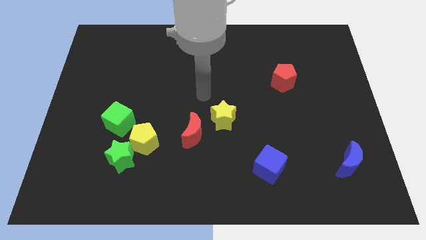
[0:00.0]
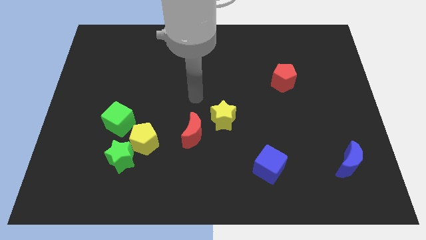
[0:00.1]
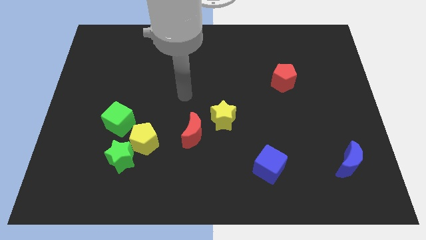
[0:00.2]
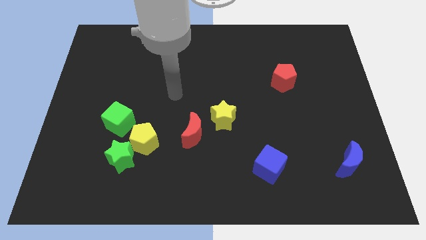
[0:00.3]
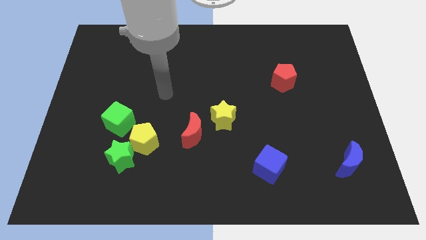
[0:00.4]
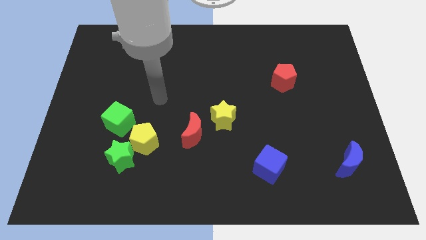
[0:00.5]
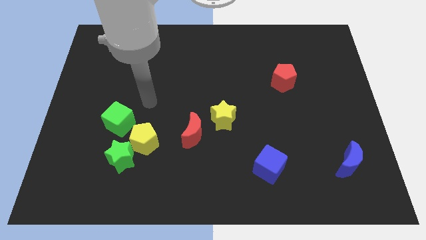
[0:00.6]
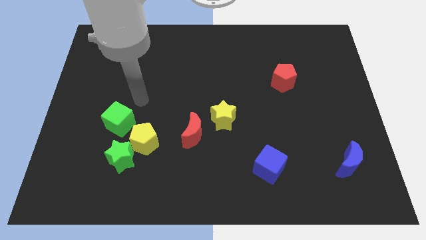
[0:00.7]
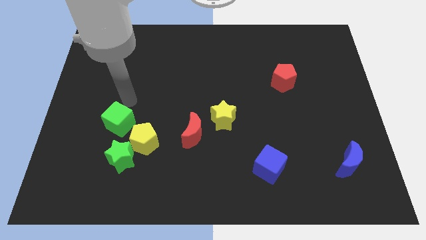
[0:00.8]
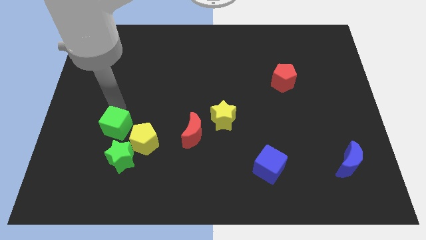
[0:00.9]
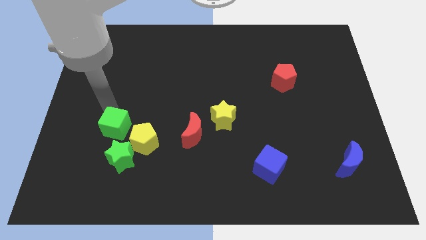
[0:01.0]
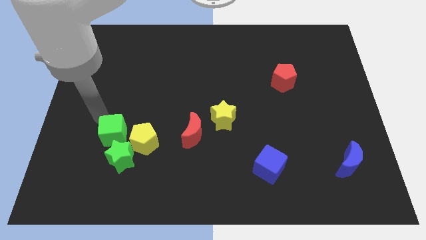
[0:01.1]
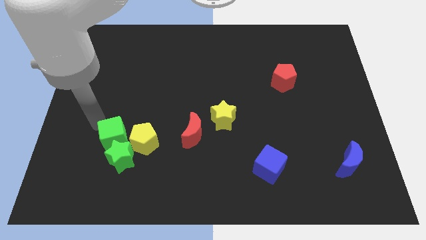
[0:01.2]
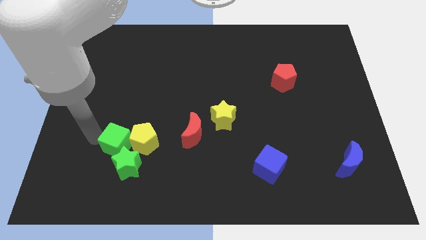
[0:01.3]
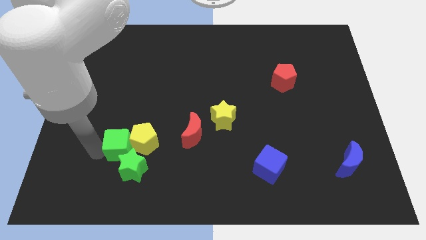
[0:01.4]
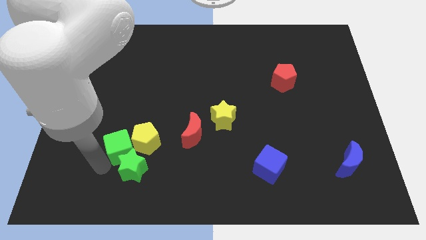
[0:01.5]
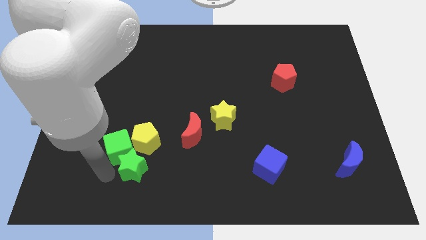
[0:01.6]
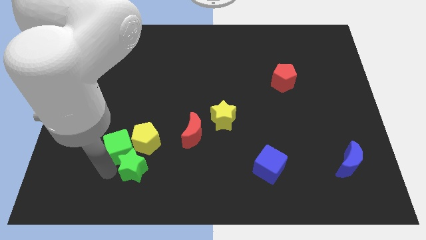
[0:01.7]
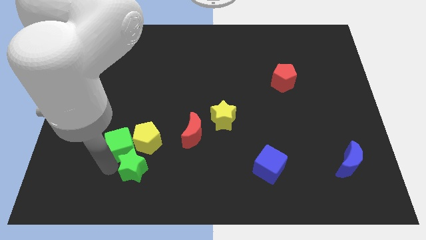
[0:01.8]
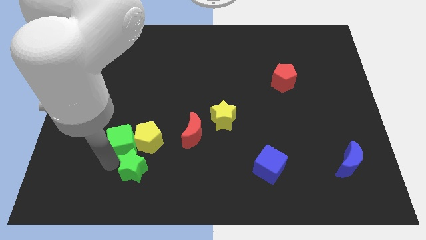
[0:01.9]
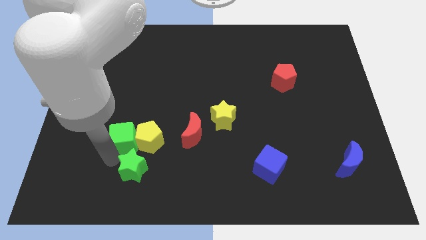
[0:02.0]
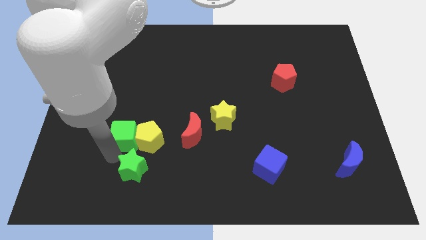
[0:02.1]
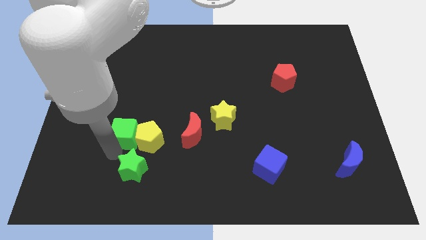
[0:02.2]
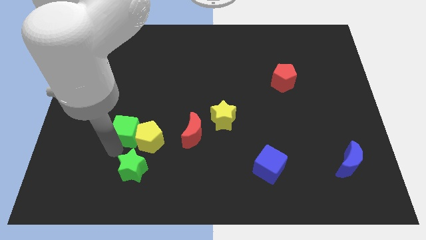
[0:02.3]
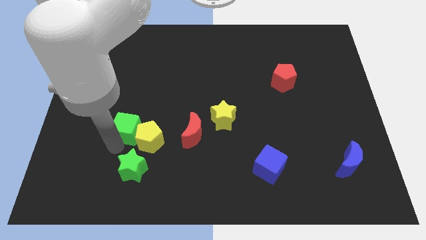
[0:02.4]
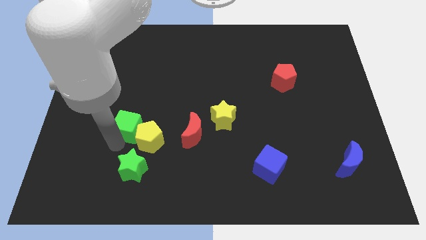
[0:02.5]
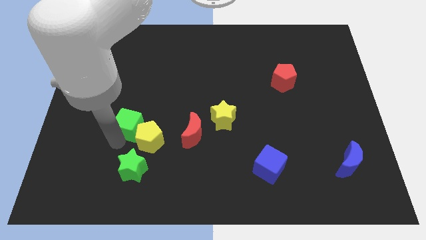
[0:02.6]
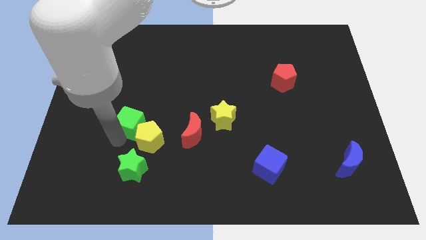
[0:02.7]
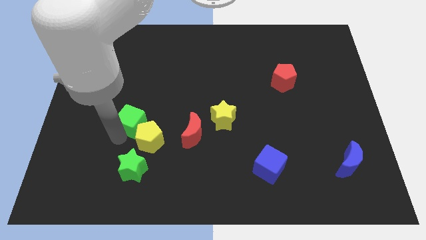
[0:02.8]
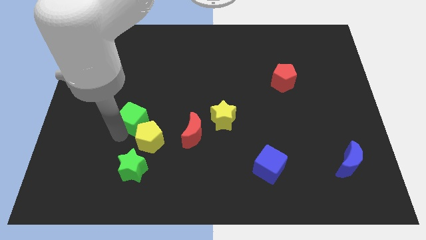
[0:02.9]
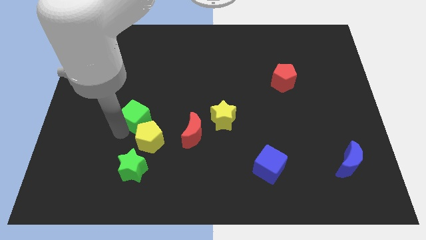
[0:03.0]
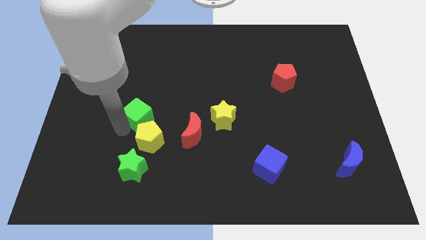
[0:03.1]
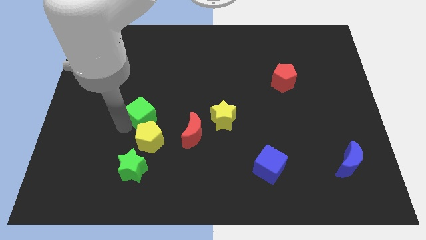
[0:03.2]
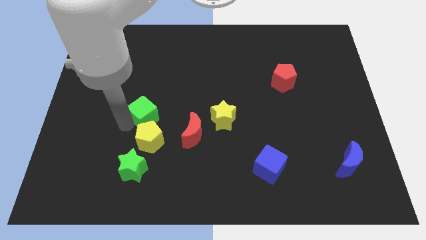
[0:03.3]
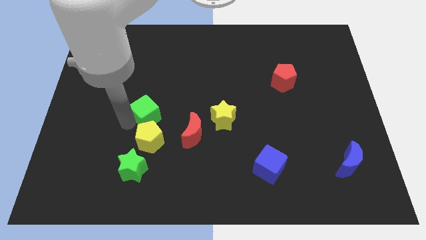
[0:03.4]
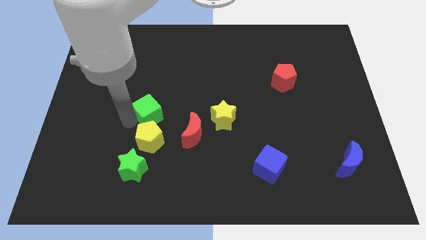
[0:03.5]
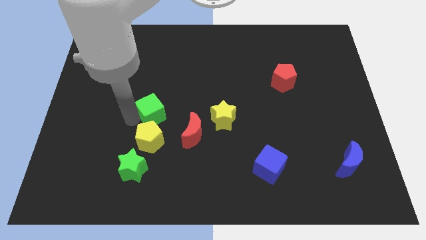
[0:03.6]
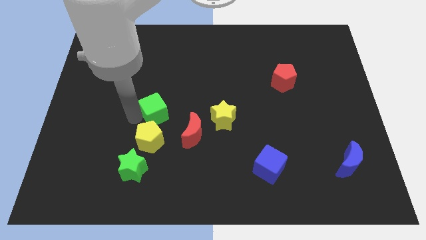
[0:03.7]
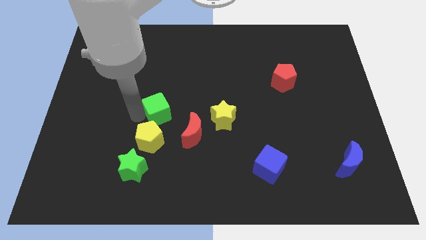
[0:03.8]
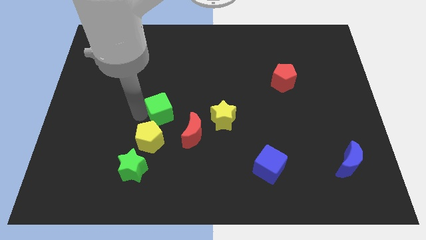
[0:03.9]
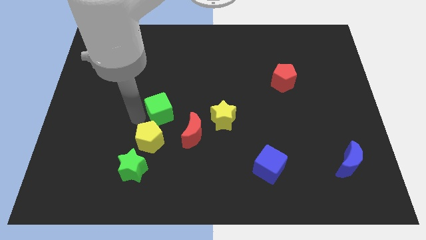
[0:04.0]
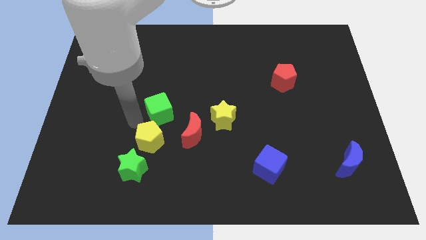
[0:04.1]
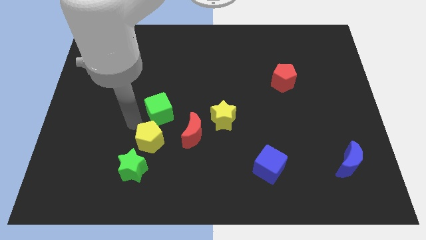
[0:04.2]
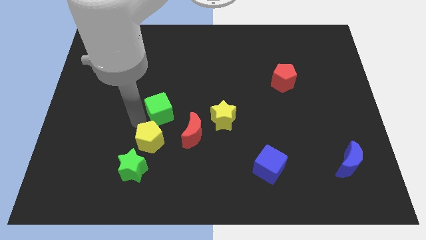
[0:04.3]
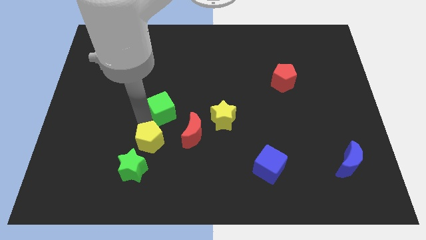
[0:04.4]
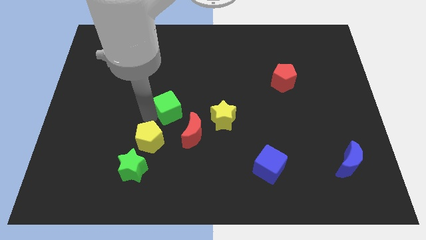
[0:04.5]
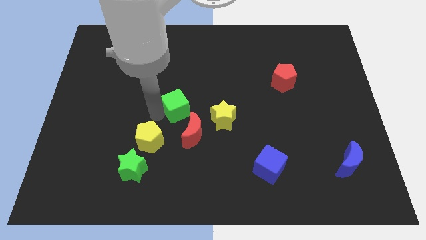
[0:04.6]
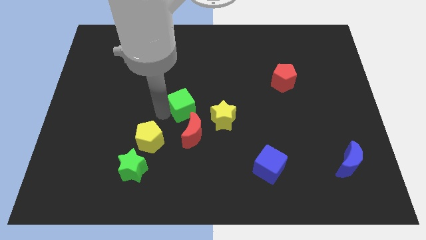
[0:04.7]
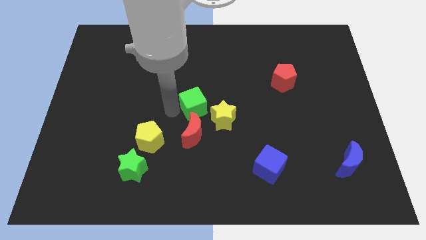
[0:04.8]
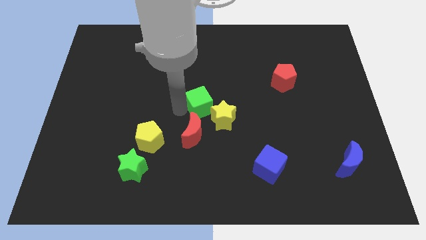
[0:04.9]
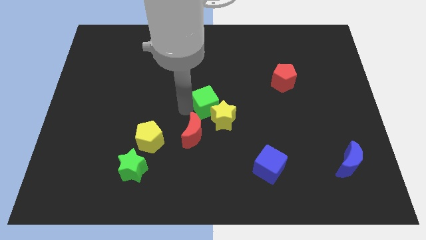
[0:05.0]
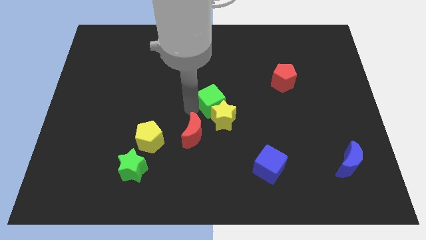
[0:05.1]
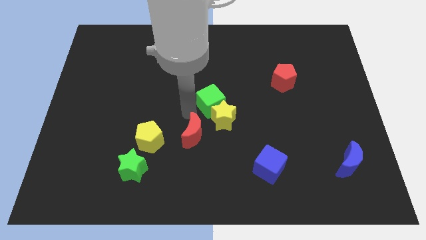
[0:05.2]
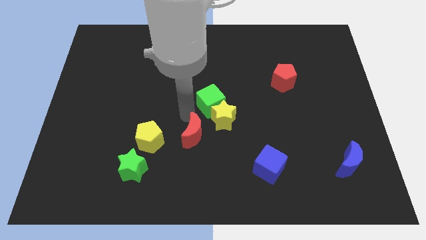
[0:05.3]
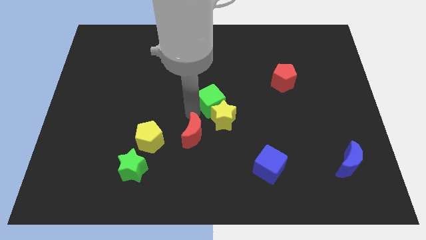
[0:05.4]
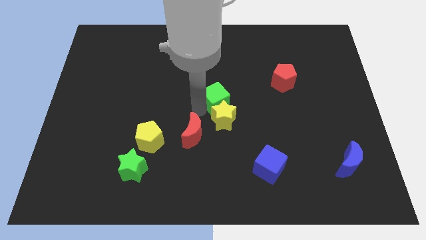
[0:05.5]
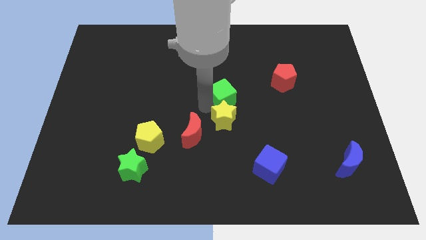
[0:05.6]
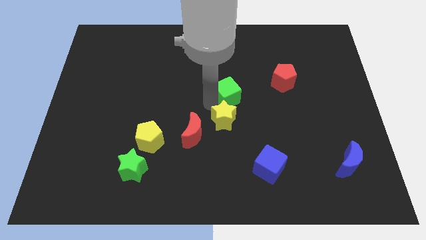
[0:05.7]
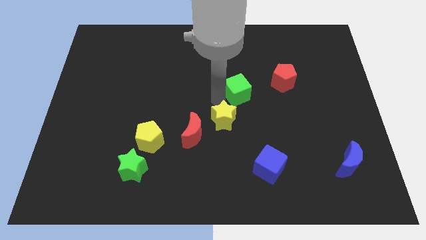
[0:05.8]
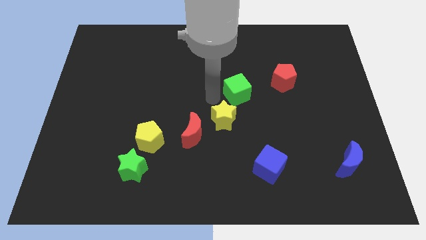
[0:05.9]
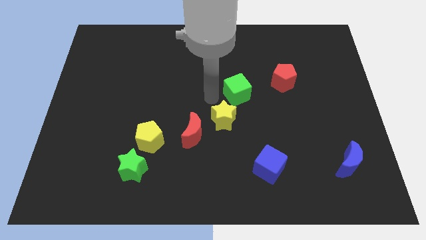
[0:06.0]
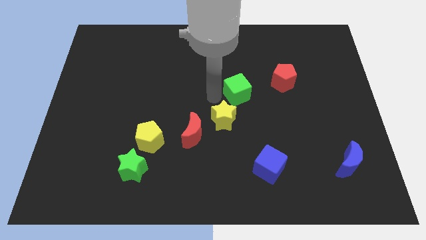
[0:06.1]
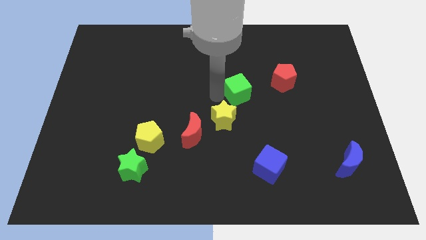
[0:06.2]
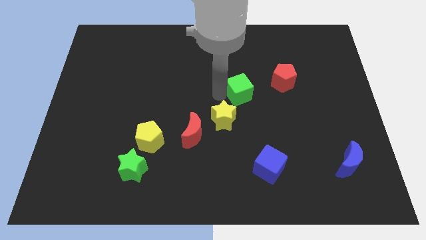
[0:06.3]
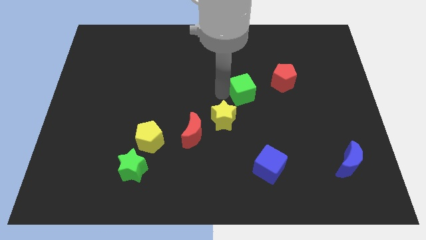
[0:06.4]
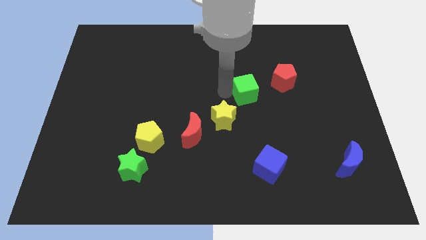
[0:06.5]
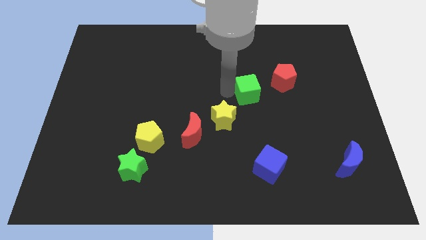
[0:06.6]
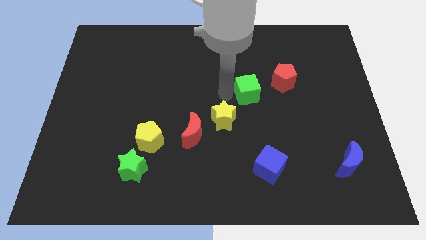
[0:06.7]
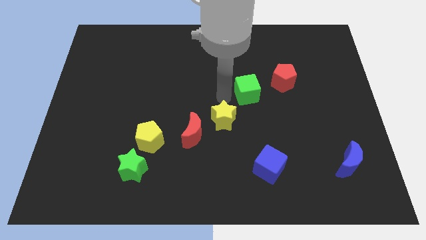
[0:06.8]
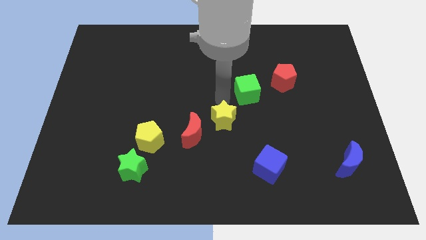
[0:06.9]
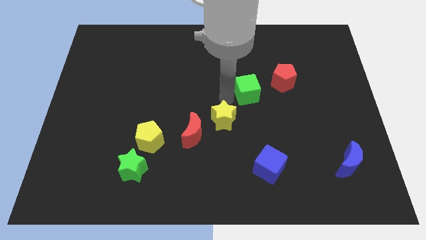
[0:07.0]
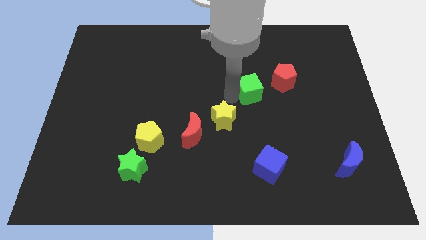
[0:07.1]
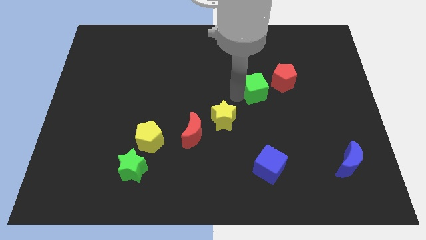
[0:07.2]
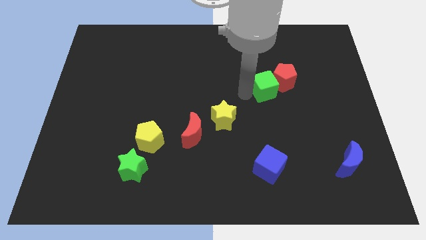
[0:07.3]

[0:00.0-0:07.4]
slide the green cube next to the red pentagon
